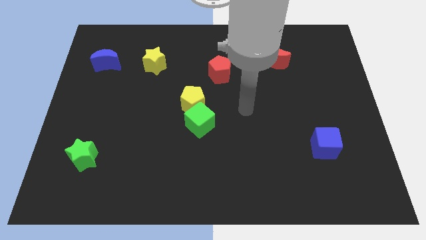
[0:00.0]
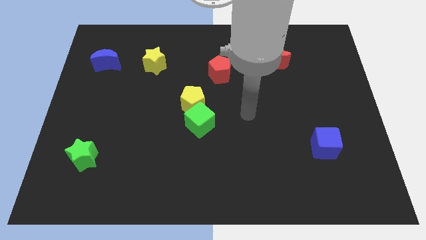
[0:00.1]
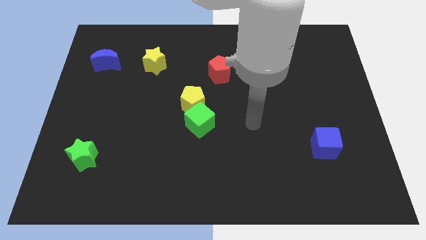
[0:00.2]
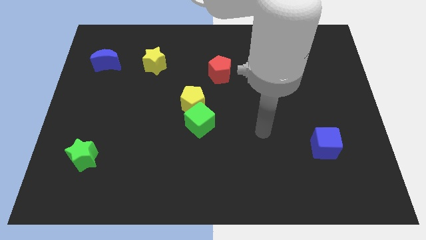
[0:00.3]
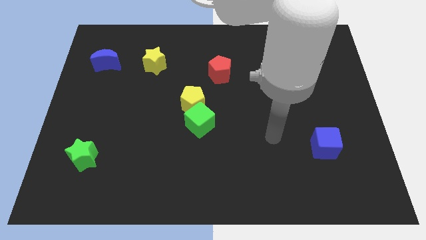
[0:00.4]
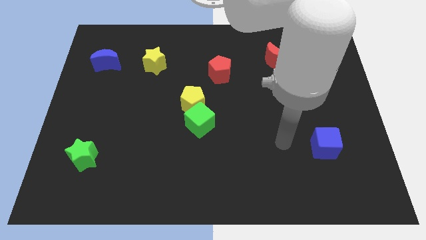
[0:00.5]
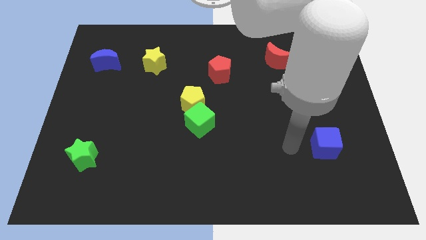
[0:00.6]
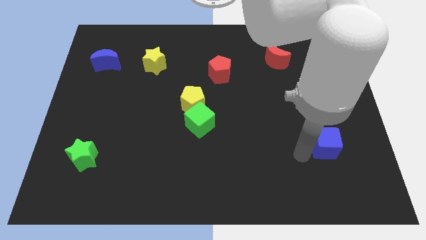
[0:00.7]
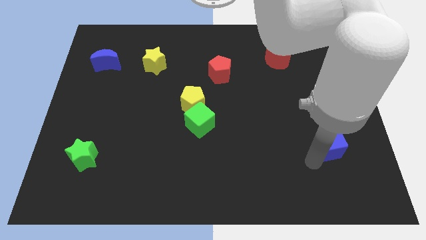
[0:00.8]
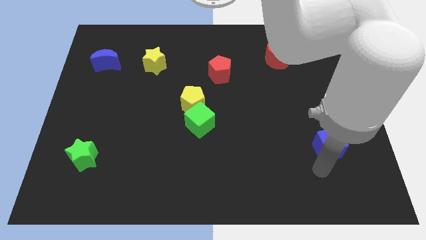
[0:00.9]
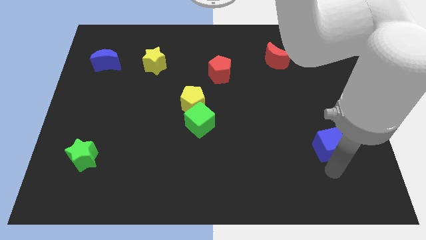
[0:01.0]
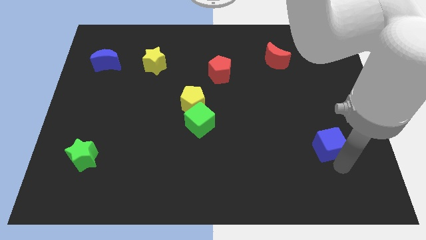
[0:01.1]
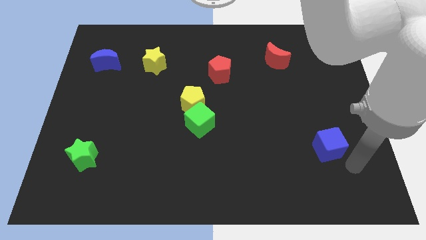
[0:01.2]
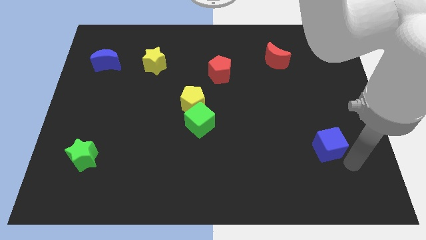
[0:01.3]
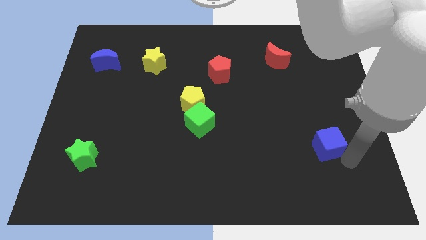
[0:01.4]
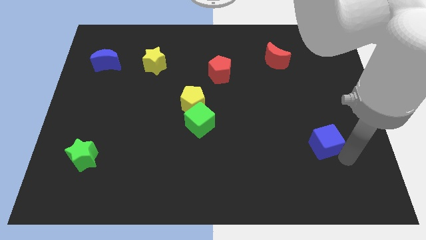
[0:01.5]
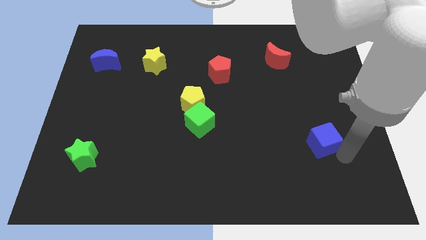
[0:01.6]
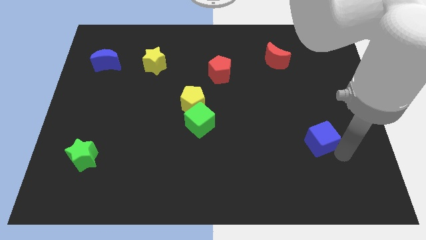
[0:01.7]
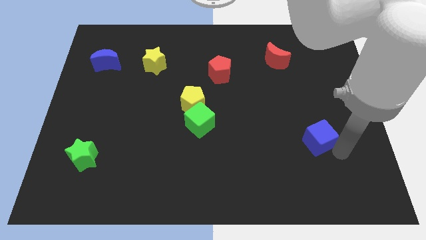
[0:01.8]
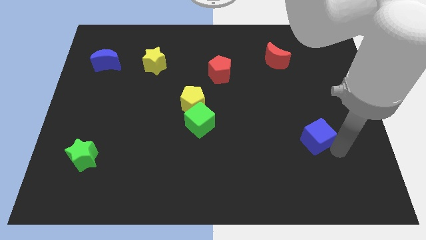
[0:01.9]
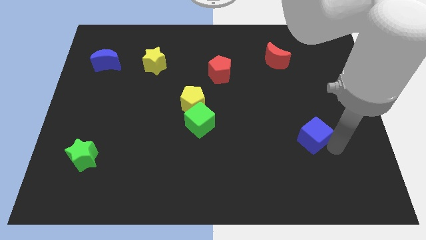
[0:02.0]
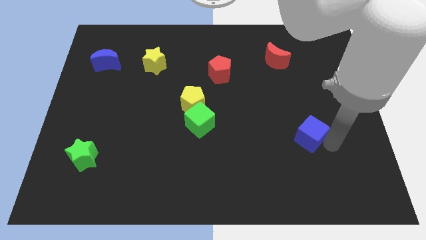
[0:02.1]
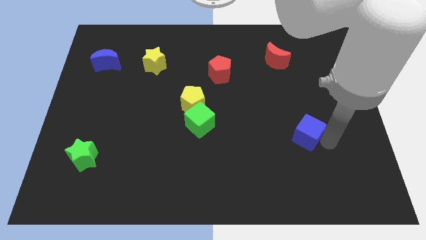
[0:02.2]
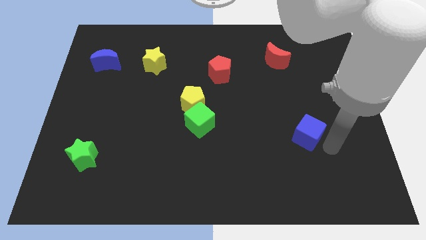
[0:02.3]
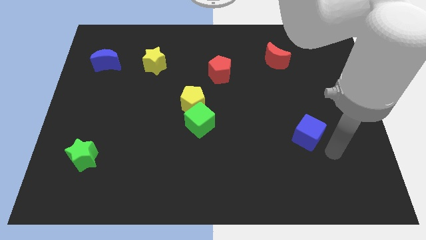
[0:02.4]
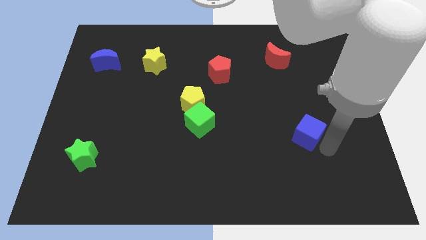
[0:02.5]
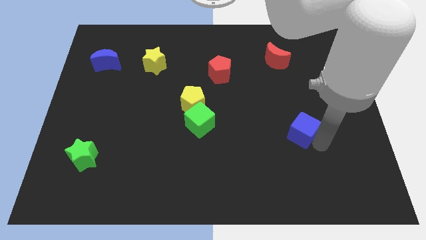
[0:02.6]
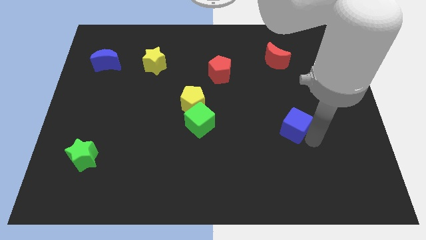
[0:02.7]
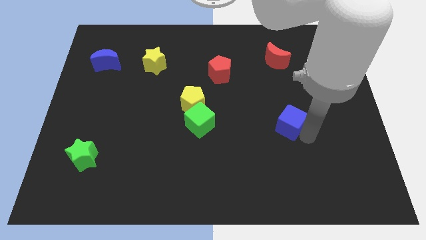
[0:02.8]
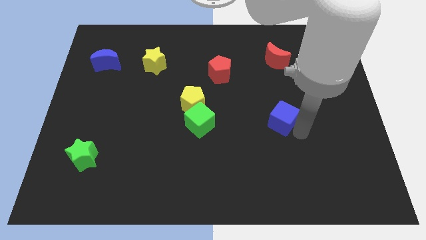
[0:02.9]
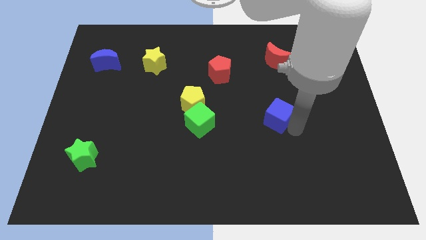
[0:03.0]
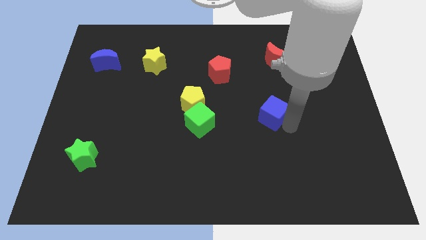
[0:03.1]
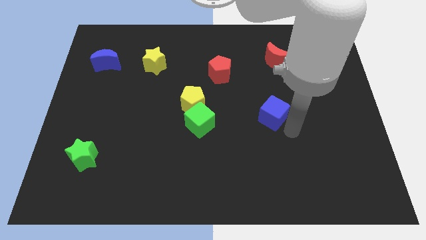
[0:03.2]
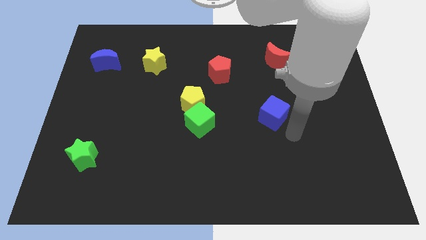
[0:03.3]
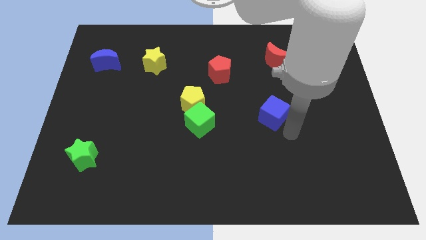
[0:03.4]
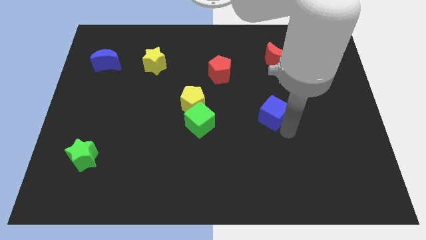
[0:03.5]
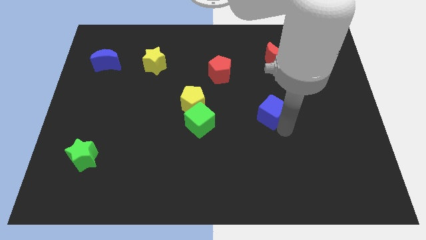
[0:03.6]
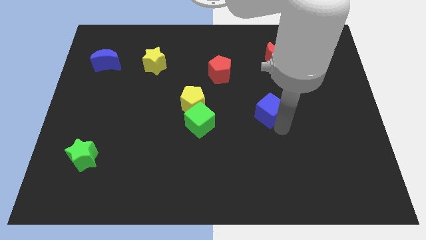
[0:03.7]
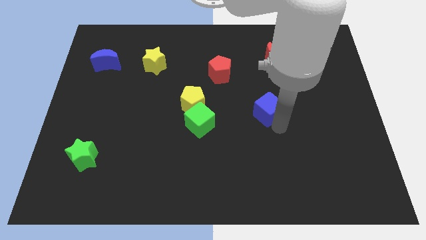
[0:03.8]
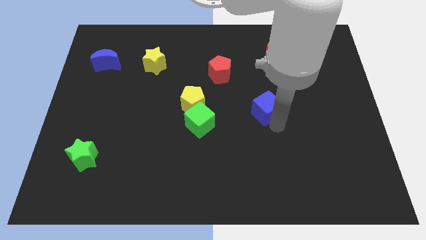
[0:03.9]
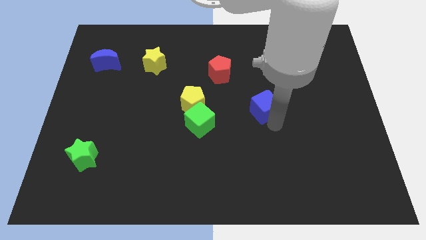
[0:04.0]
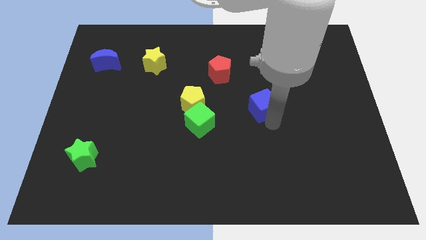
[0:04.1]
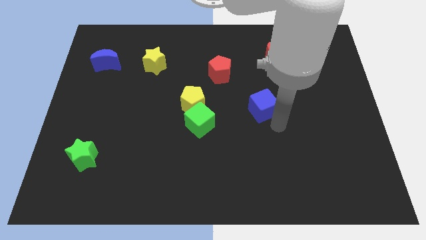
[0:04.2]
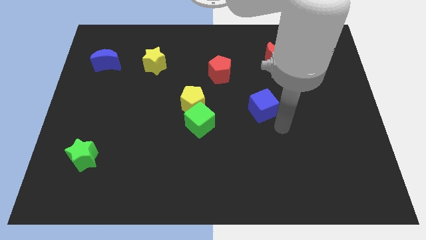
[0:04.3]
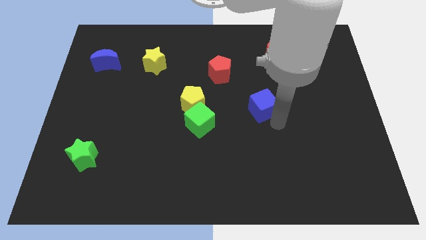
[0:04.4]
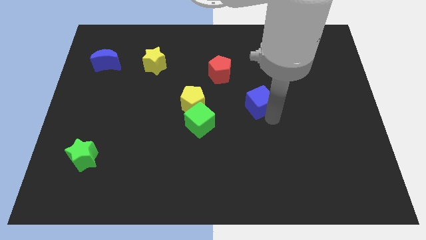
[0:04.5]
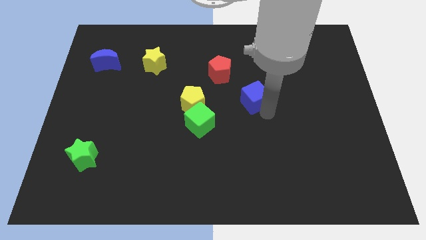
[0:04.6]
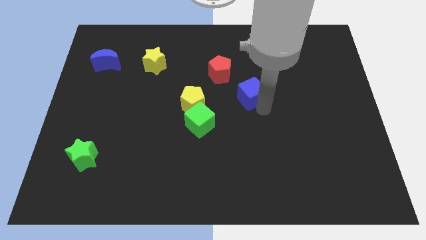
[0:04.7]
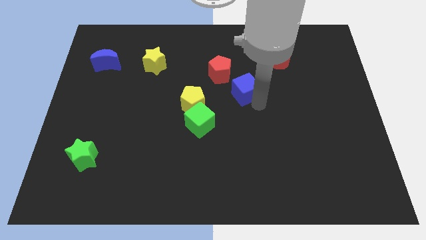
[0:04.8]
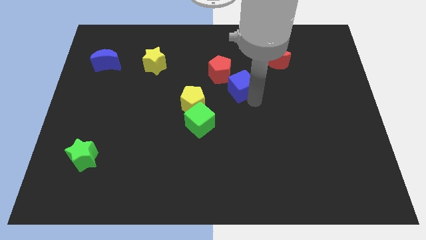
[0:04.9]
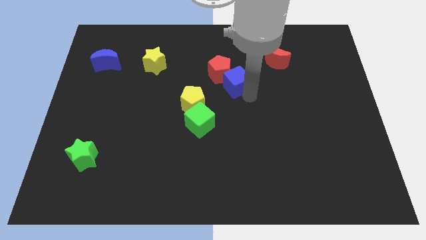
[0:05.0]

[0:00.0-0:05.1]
put the blue cube close to the red pentagon

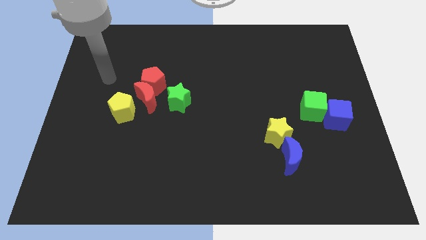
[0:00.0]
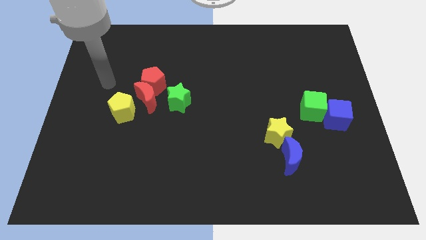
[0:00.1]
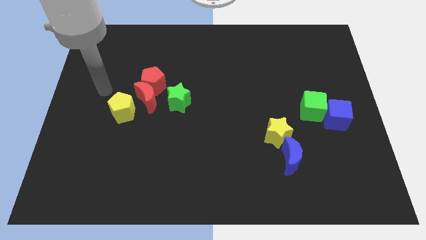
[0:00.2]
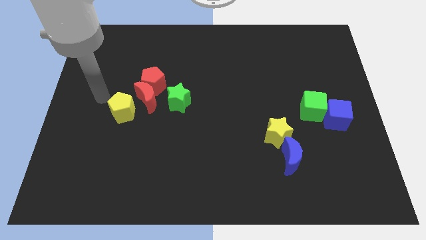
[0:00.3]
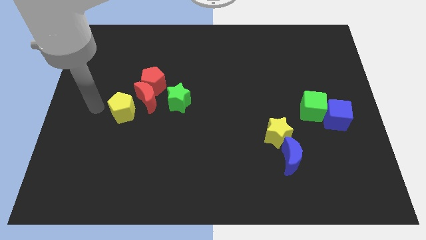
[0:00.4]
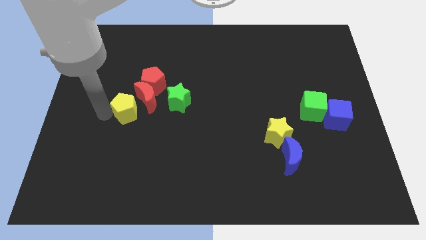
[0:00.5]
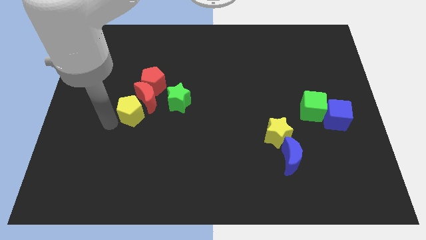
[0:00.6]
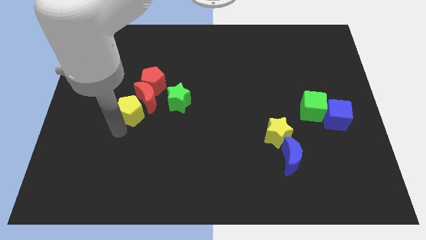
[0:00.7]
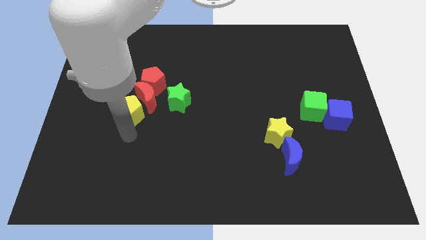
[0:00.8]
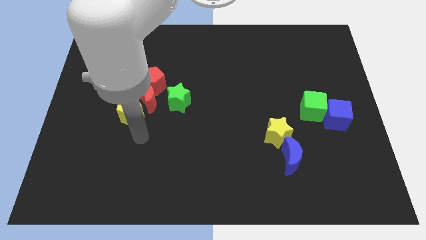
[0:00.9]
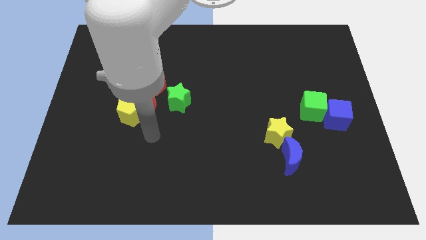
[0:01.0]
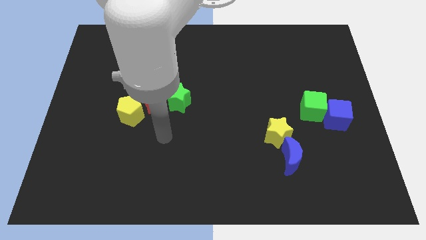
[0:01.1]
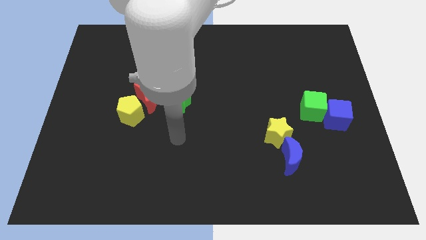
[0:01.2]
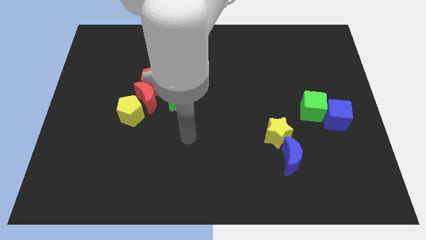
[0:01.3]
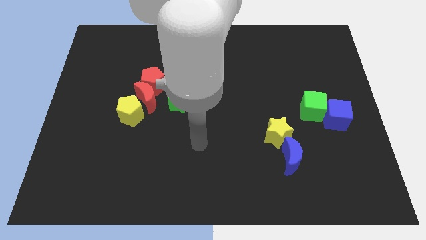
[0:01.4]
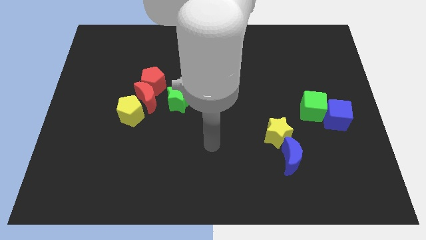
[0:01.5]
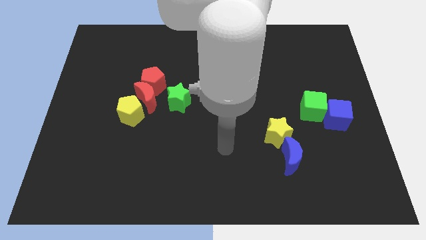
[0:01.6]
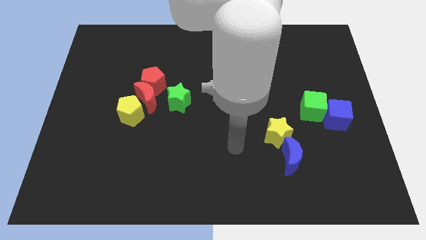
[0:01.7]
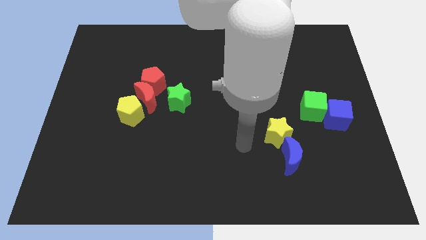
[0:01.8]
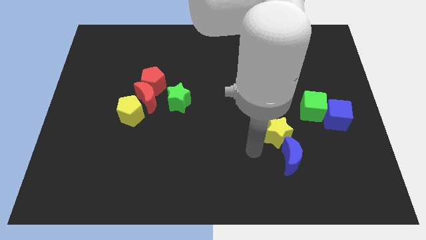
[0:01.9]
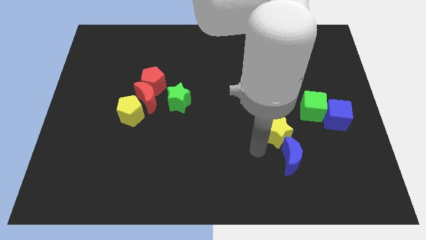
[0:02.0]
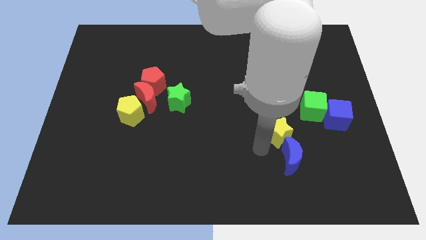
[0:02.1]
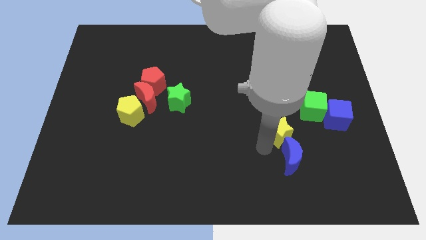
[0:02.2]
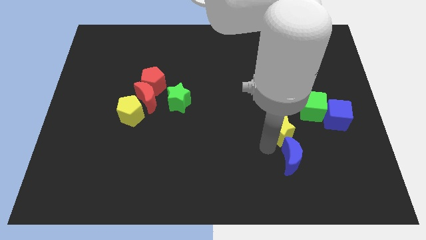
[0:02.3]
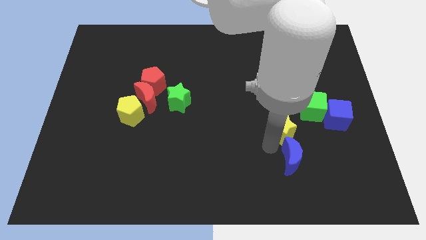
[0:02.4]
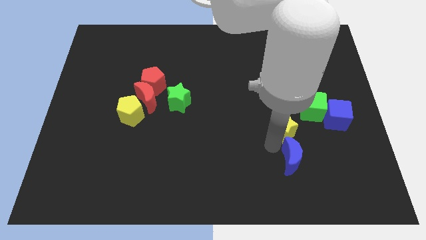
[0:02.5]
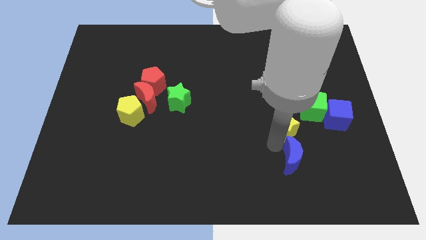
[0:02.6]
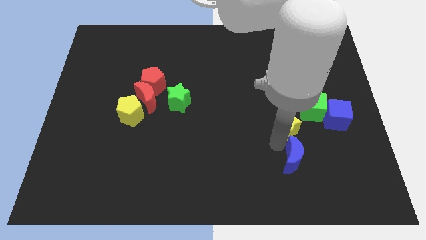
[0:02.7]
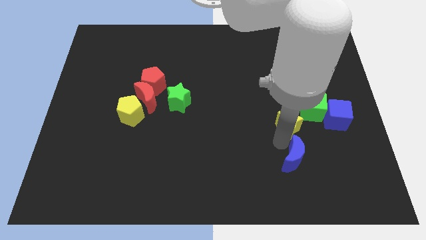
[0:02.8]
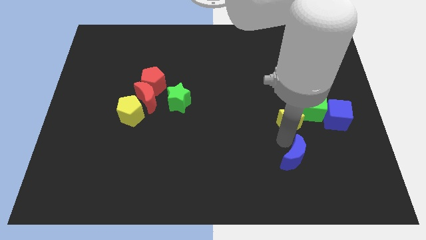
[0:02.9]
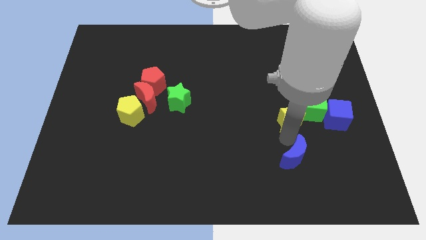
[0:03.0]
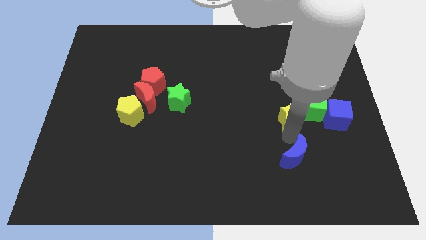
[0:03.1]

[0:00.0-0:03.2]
move the yellow star next to the green cube
